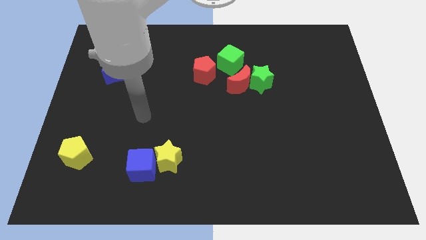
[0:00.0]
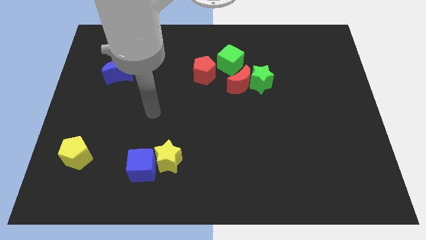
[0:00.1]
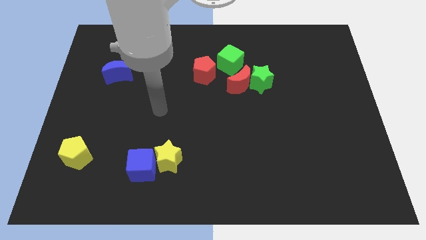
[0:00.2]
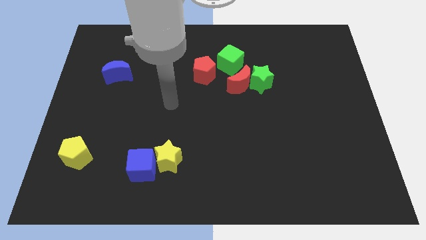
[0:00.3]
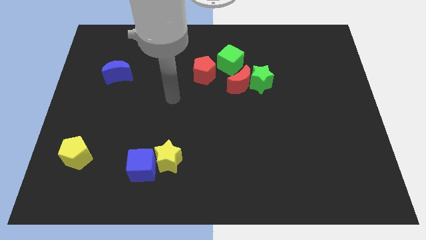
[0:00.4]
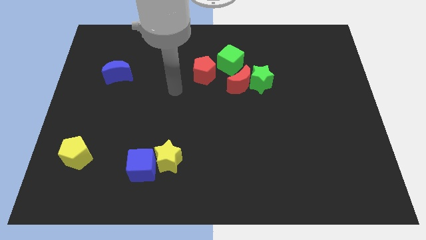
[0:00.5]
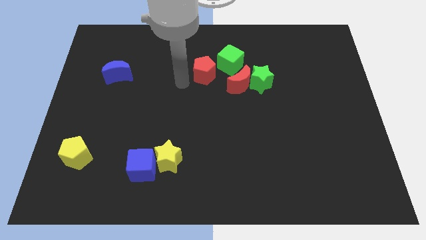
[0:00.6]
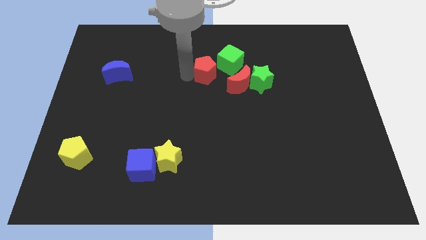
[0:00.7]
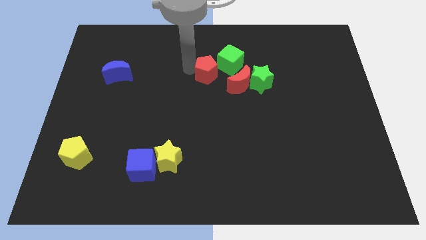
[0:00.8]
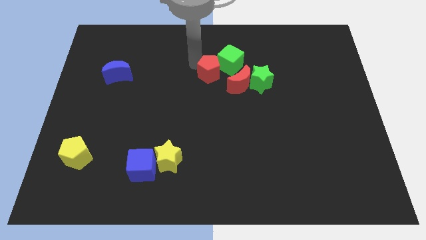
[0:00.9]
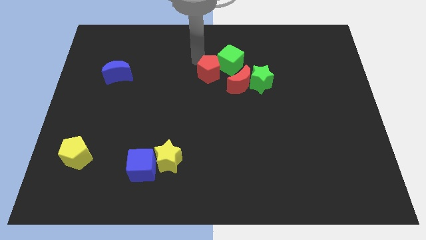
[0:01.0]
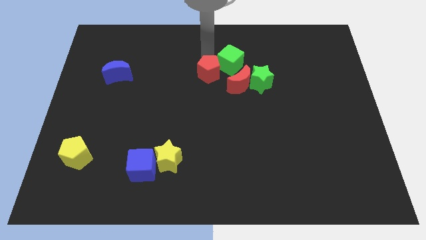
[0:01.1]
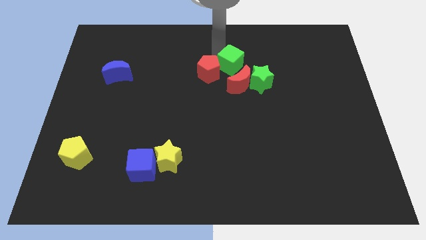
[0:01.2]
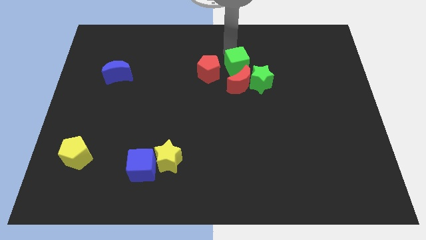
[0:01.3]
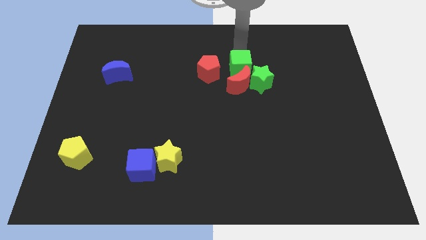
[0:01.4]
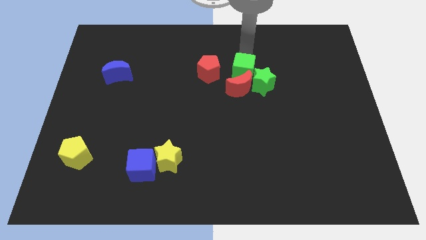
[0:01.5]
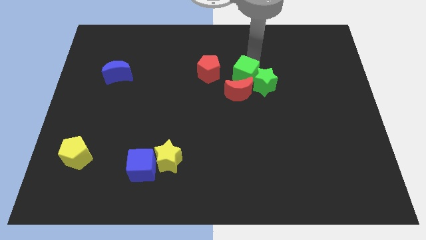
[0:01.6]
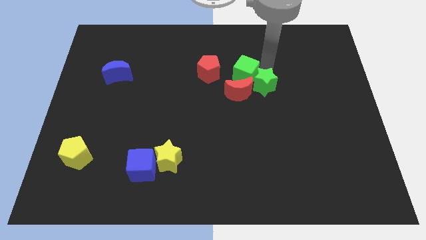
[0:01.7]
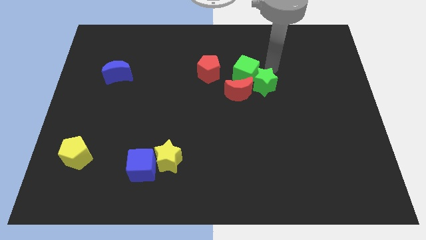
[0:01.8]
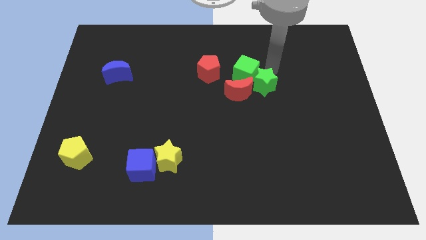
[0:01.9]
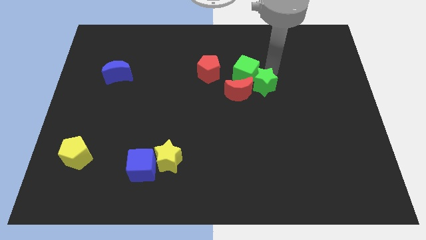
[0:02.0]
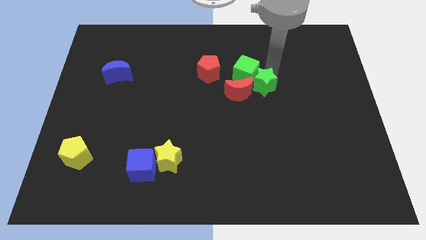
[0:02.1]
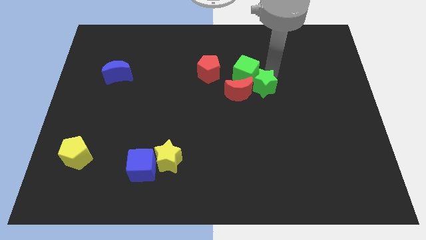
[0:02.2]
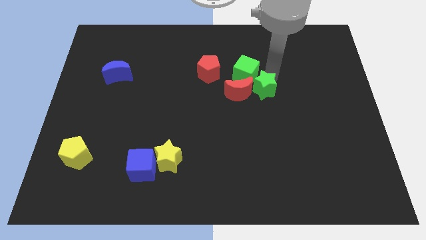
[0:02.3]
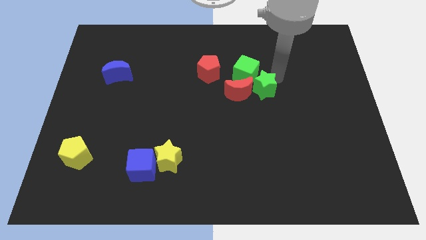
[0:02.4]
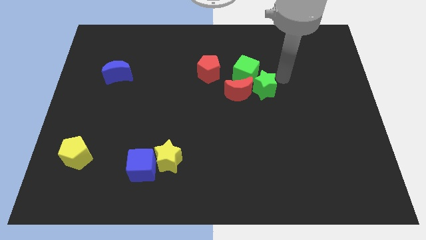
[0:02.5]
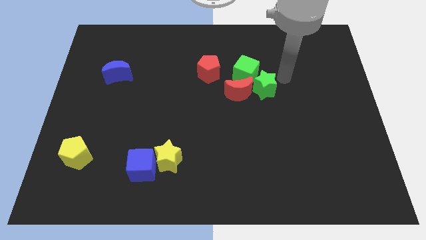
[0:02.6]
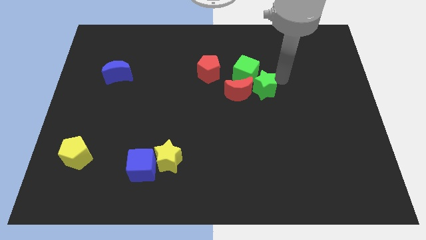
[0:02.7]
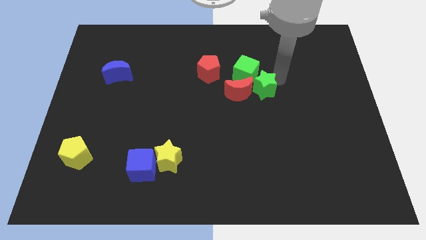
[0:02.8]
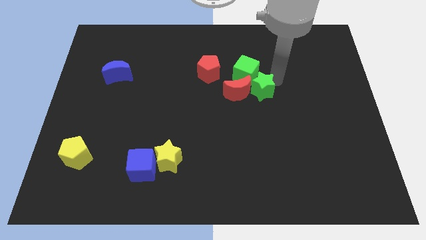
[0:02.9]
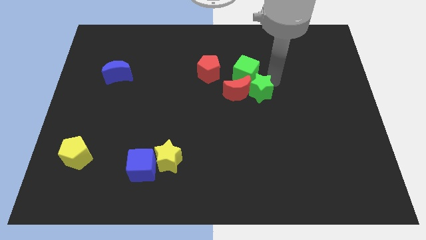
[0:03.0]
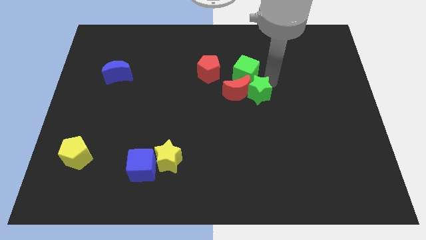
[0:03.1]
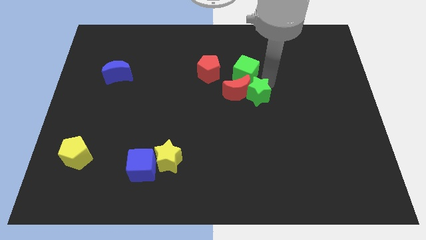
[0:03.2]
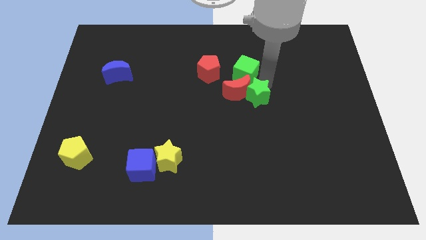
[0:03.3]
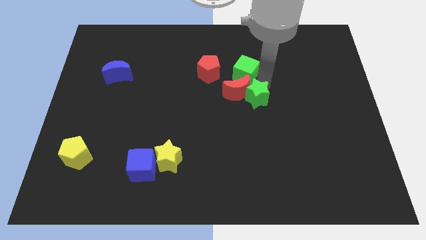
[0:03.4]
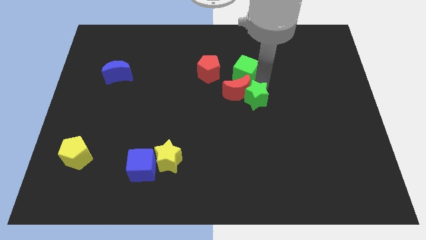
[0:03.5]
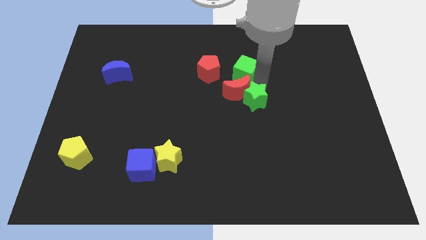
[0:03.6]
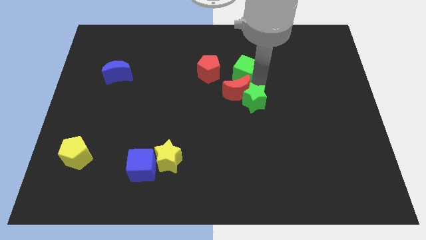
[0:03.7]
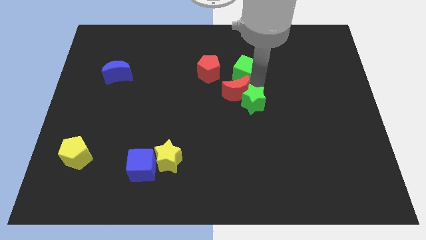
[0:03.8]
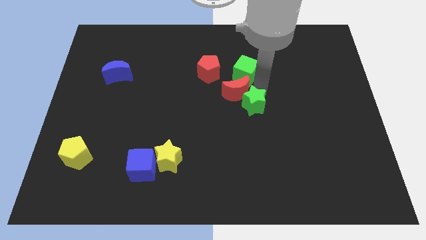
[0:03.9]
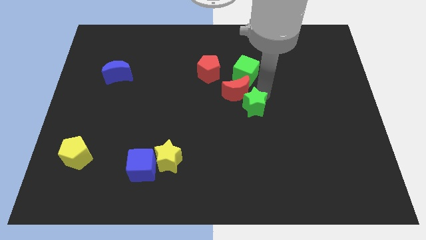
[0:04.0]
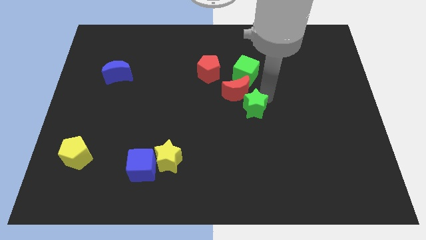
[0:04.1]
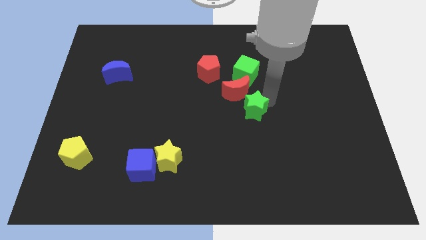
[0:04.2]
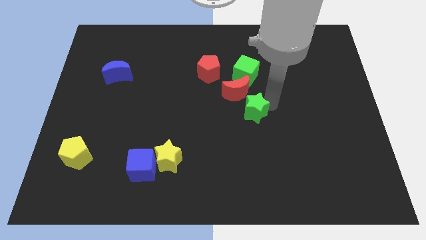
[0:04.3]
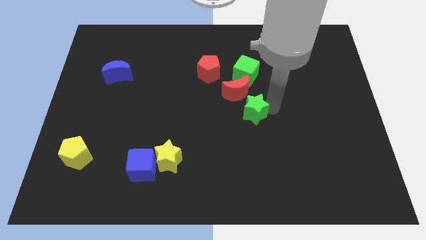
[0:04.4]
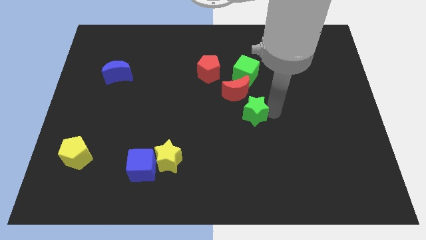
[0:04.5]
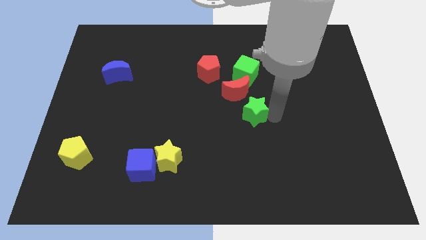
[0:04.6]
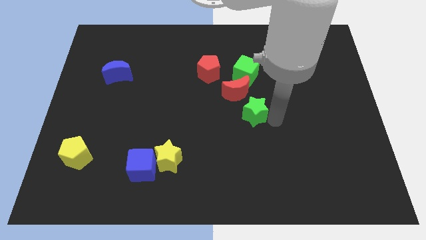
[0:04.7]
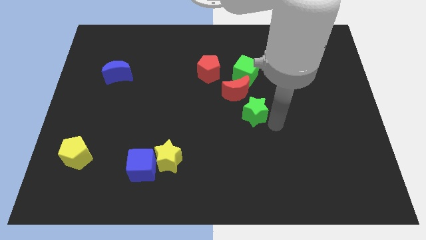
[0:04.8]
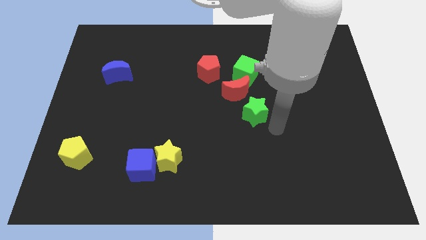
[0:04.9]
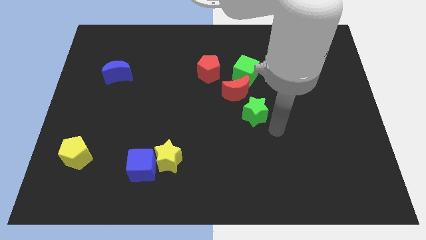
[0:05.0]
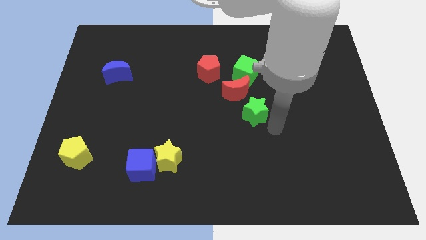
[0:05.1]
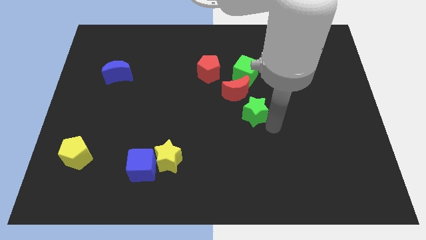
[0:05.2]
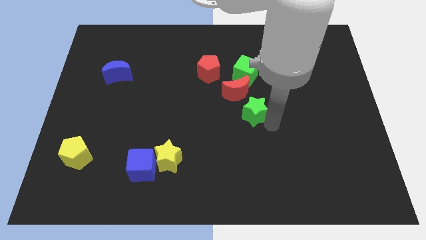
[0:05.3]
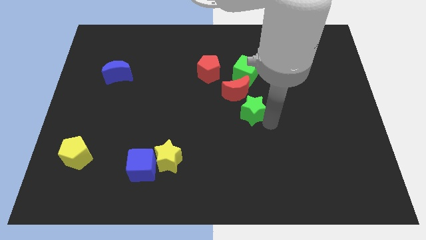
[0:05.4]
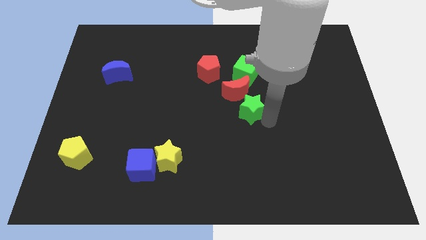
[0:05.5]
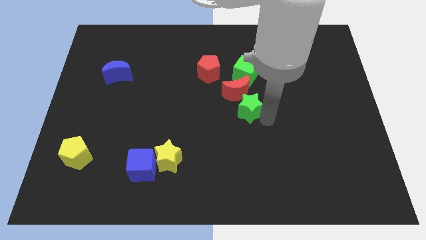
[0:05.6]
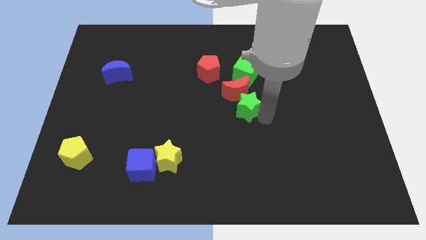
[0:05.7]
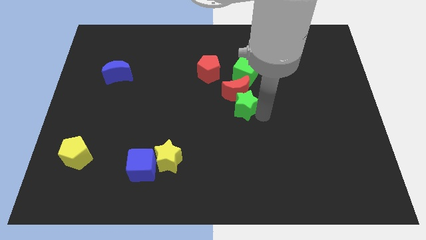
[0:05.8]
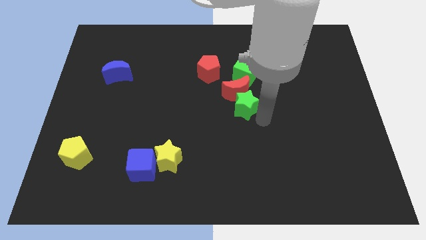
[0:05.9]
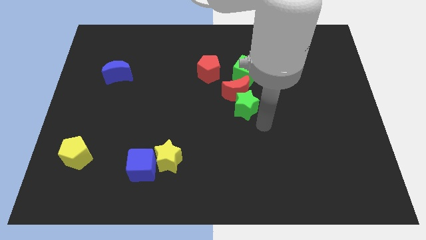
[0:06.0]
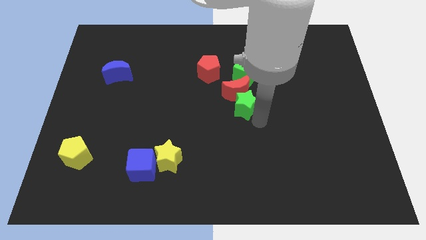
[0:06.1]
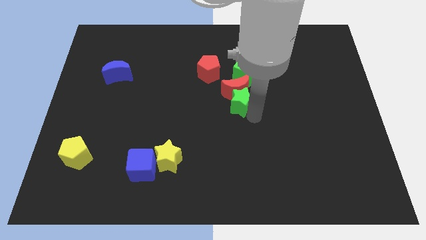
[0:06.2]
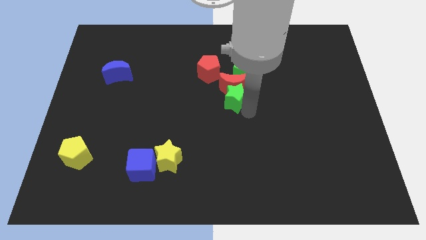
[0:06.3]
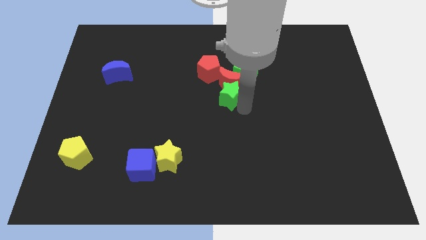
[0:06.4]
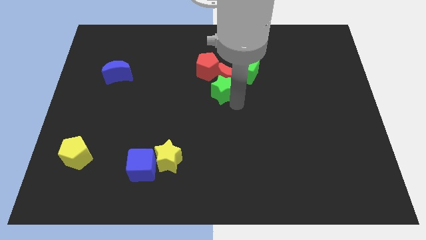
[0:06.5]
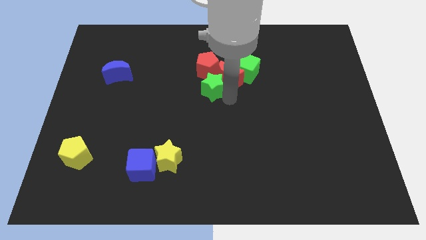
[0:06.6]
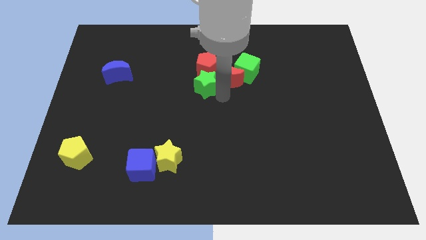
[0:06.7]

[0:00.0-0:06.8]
push the green star close to the red pentagon

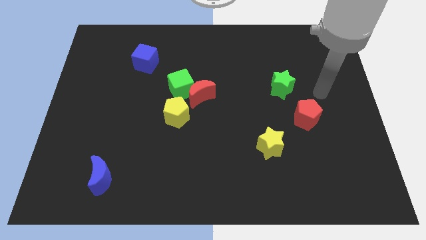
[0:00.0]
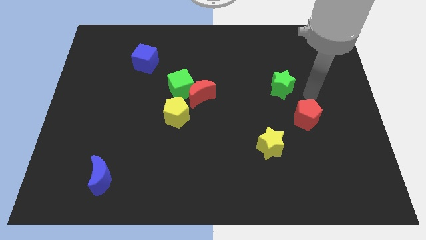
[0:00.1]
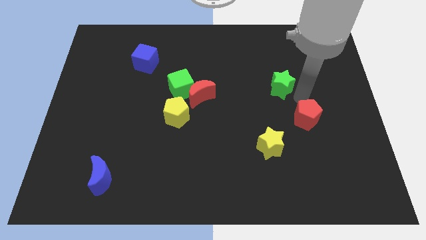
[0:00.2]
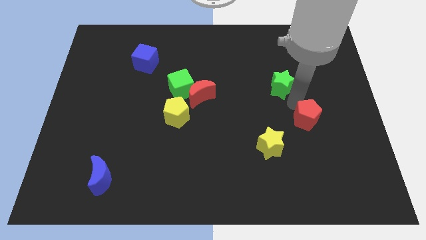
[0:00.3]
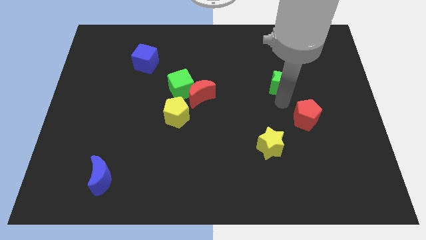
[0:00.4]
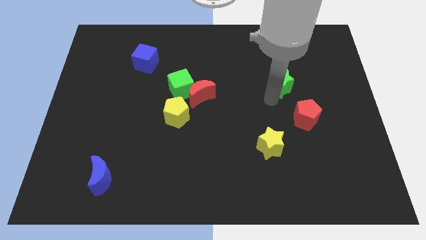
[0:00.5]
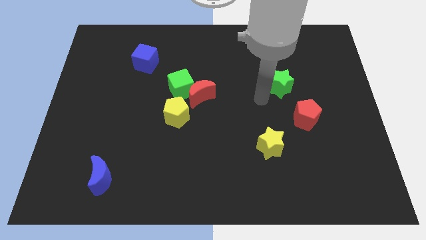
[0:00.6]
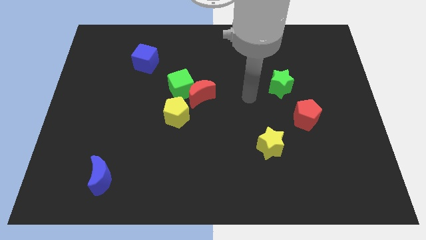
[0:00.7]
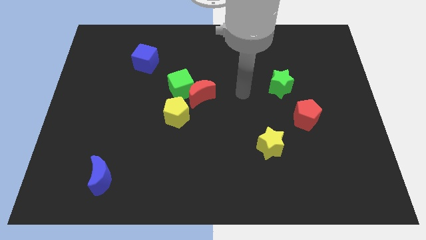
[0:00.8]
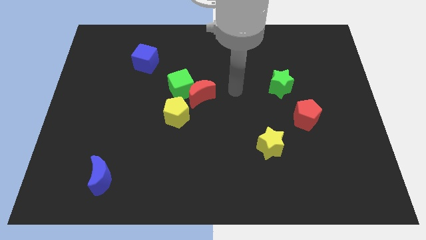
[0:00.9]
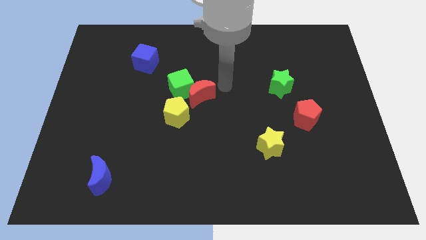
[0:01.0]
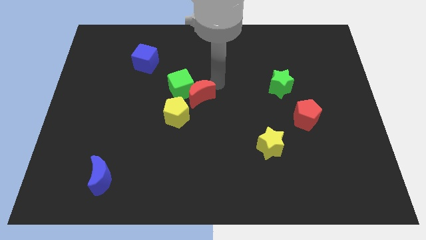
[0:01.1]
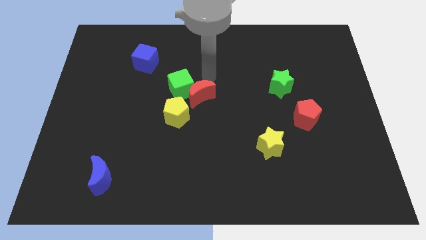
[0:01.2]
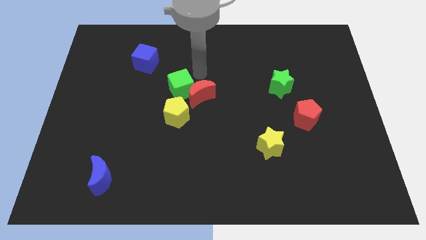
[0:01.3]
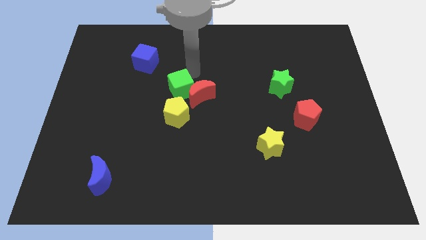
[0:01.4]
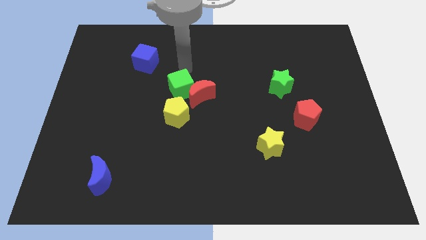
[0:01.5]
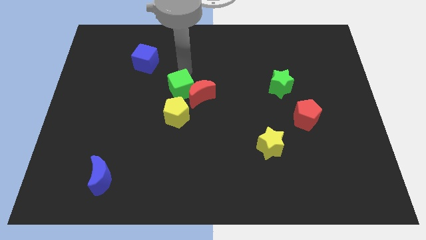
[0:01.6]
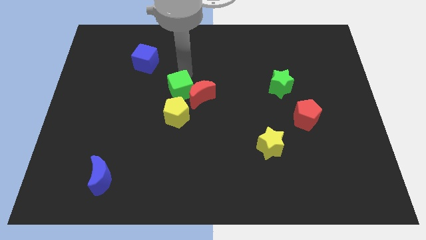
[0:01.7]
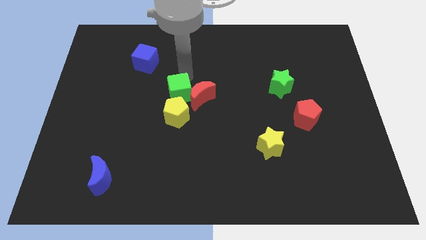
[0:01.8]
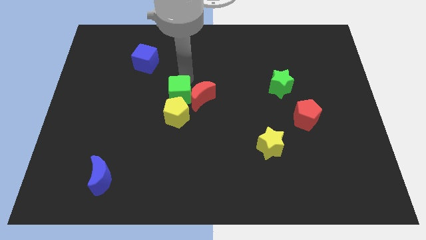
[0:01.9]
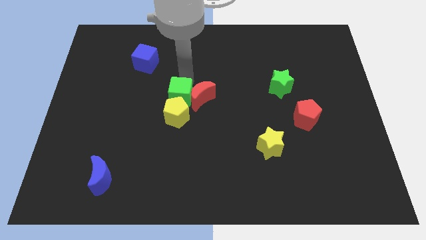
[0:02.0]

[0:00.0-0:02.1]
push the green cube towards the yellow pentagon
